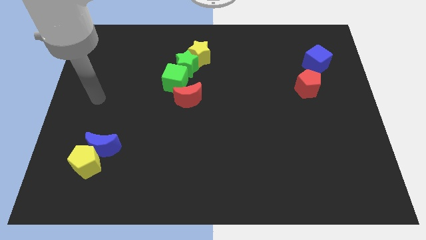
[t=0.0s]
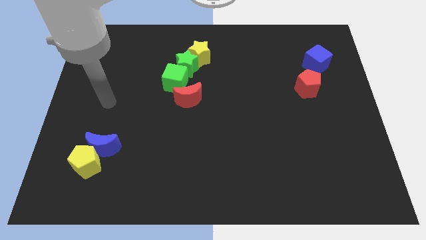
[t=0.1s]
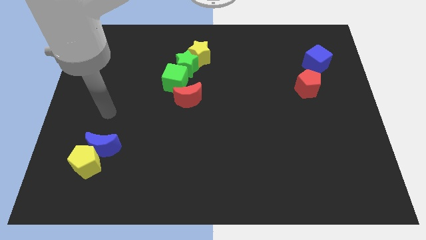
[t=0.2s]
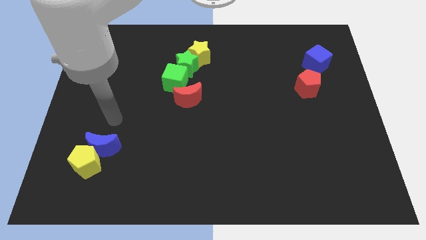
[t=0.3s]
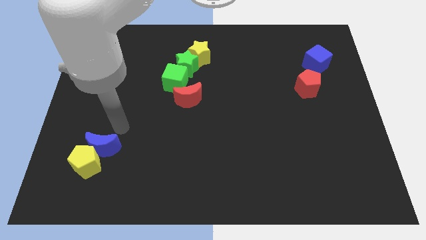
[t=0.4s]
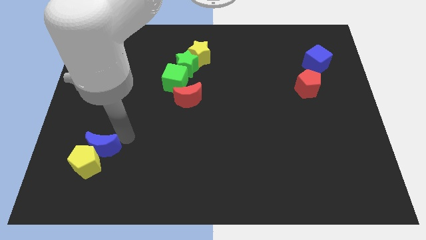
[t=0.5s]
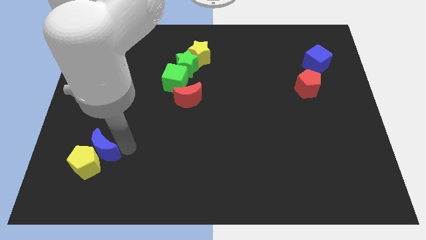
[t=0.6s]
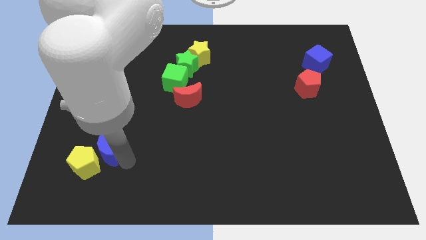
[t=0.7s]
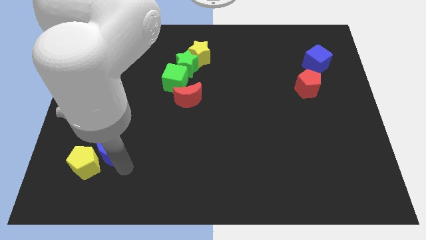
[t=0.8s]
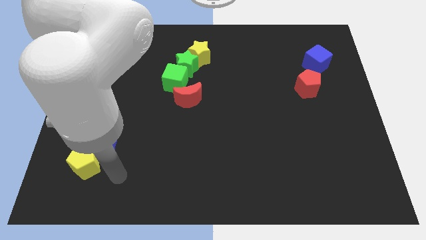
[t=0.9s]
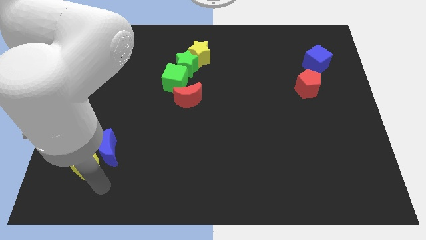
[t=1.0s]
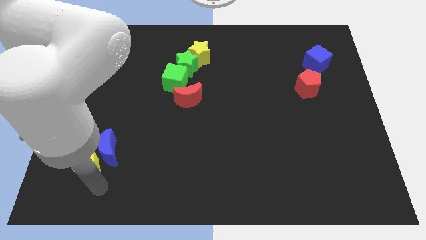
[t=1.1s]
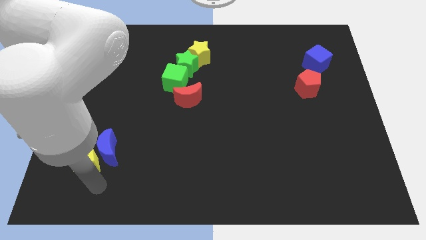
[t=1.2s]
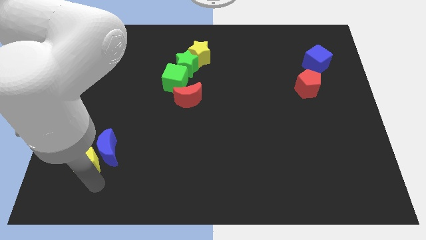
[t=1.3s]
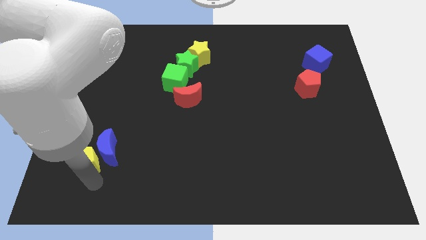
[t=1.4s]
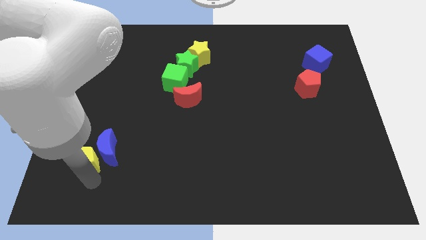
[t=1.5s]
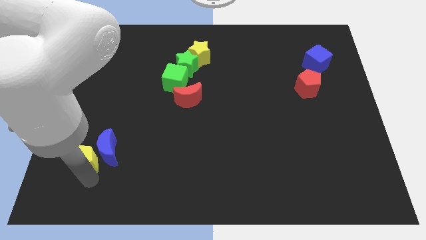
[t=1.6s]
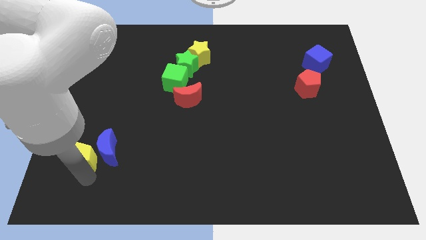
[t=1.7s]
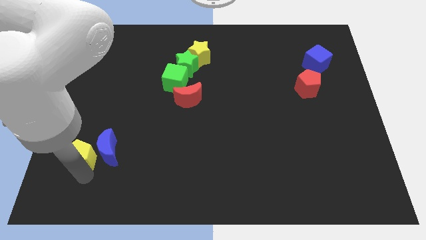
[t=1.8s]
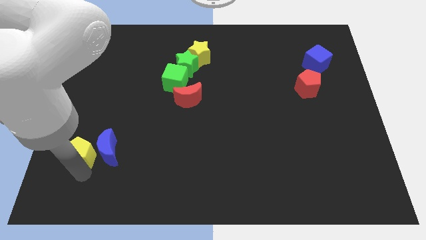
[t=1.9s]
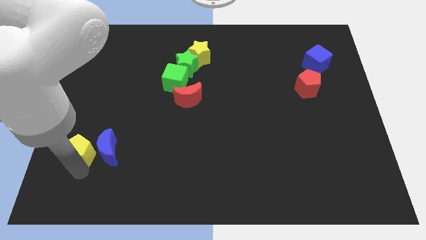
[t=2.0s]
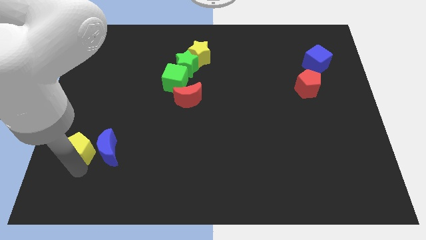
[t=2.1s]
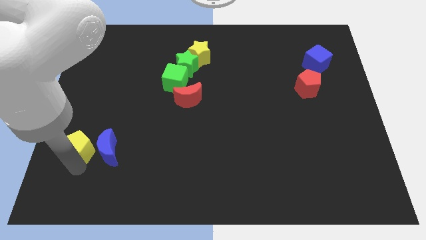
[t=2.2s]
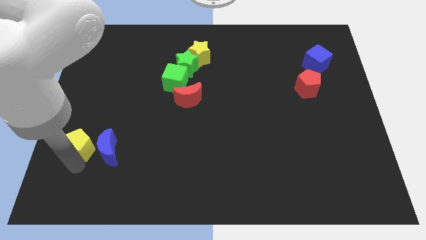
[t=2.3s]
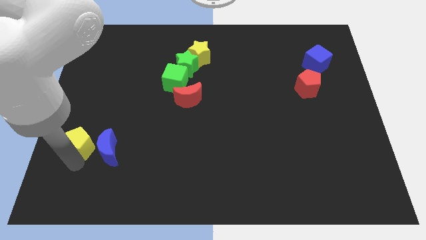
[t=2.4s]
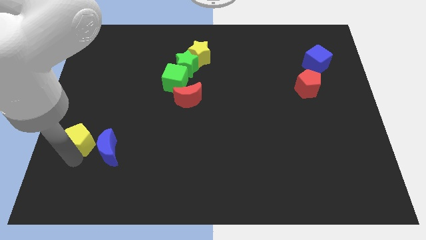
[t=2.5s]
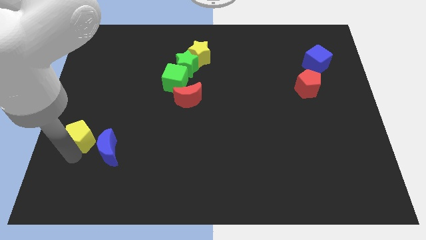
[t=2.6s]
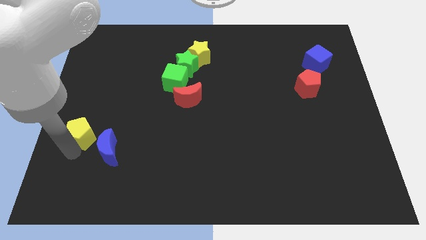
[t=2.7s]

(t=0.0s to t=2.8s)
slightly move the yellow pentagon up

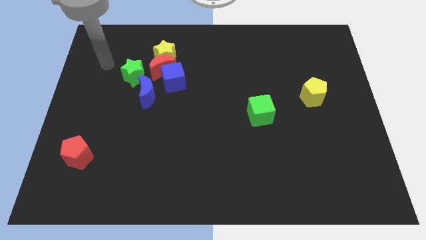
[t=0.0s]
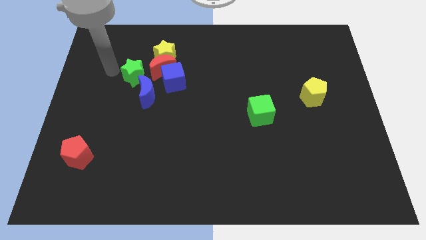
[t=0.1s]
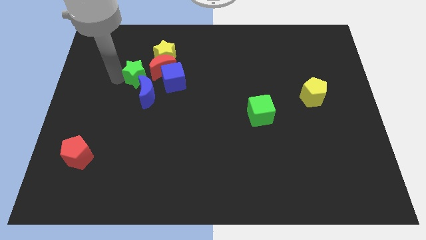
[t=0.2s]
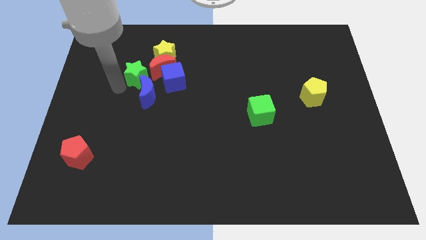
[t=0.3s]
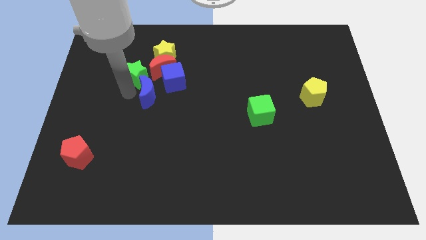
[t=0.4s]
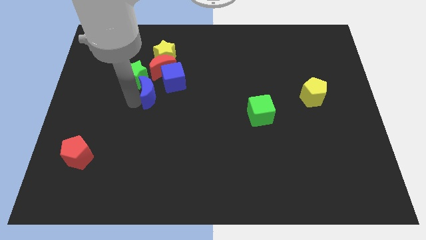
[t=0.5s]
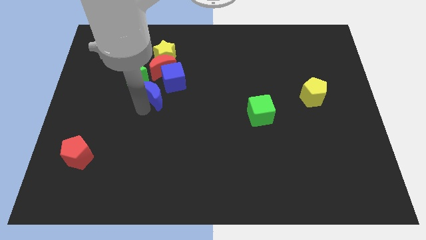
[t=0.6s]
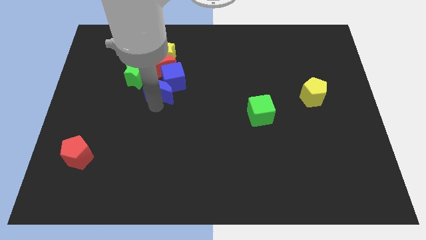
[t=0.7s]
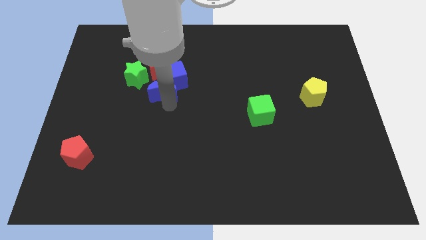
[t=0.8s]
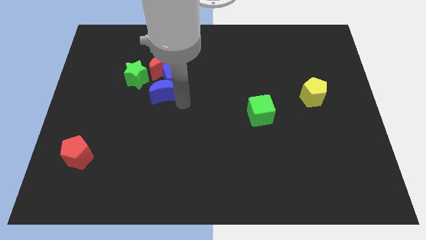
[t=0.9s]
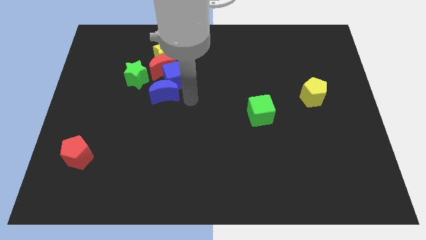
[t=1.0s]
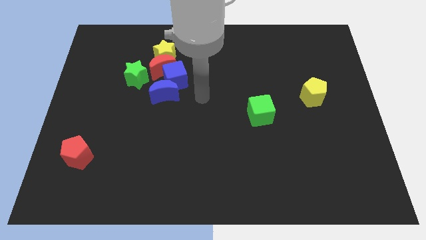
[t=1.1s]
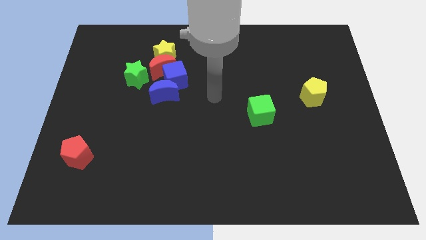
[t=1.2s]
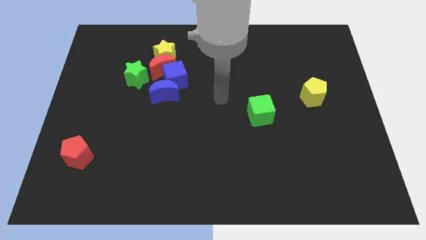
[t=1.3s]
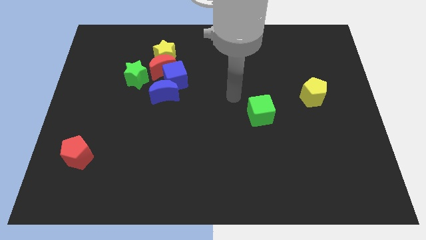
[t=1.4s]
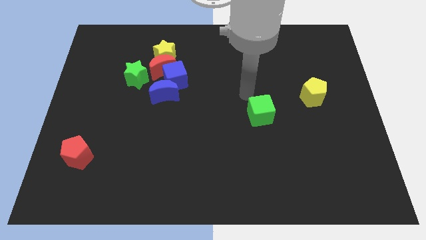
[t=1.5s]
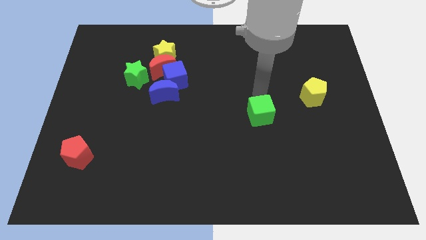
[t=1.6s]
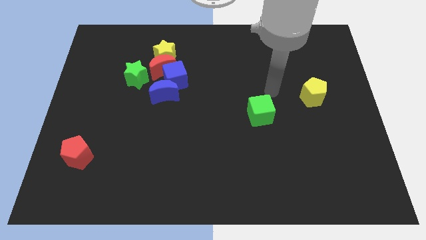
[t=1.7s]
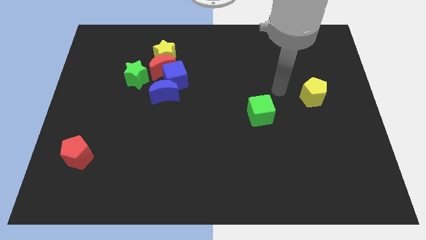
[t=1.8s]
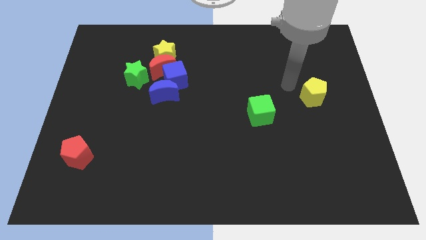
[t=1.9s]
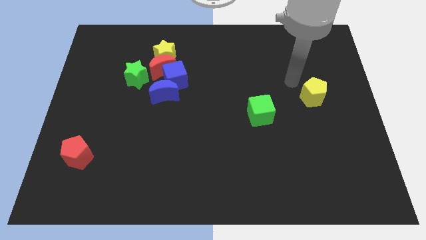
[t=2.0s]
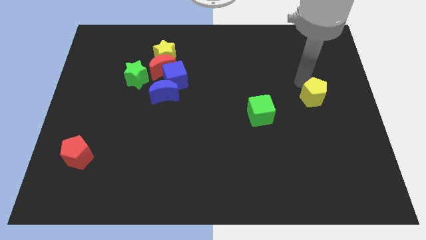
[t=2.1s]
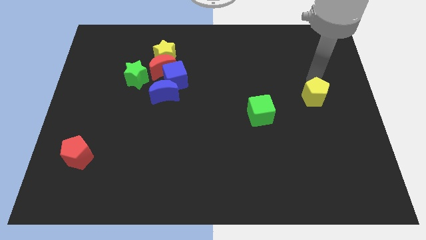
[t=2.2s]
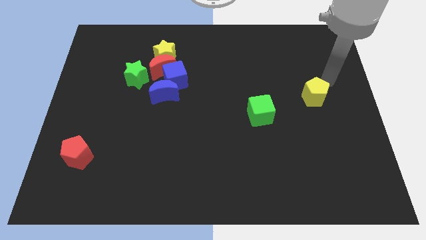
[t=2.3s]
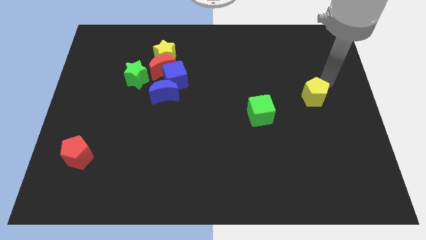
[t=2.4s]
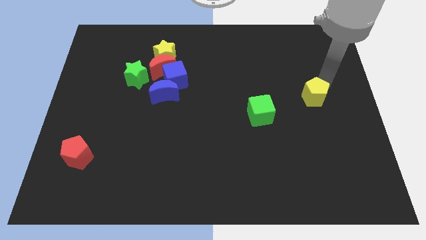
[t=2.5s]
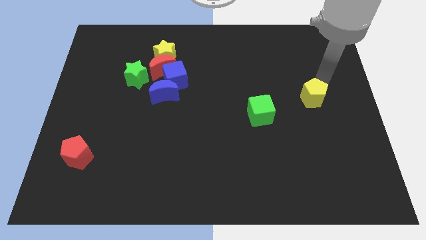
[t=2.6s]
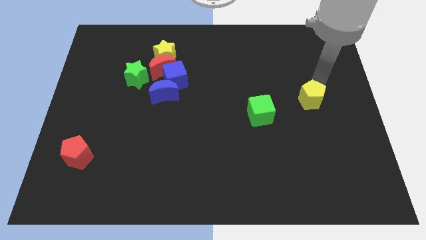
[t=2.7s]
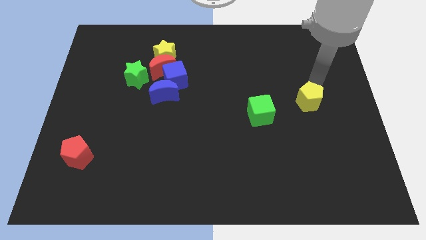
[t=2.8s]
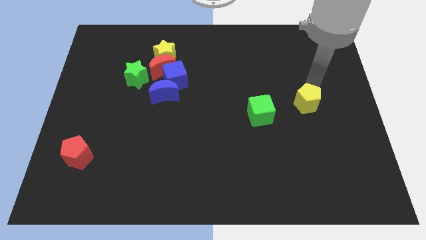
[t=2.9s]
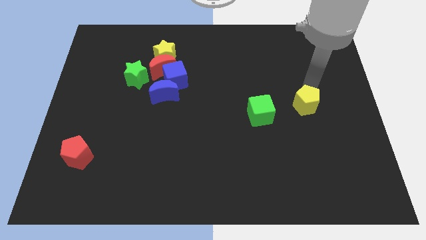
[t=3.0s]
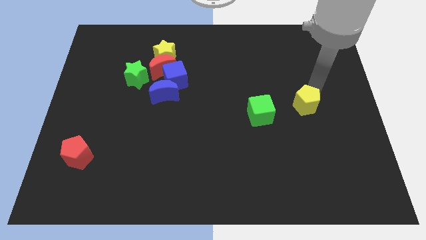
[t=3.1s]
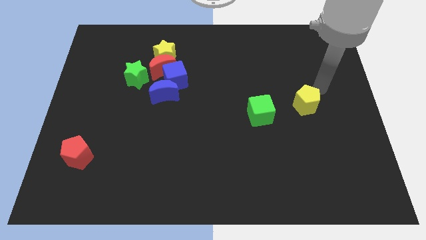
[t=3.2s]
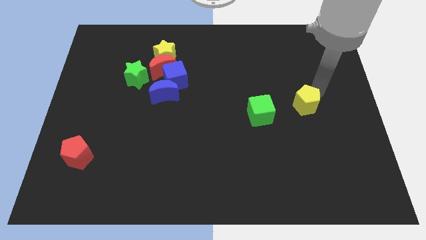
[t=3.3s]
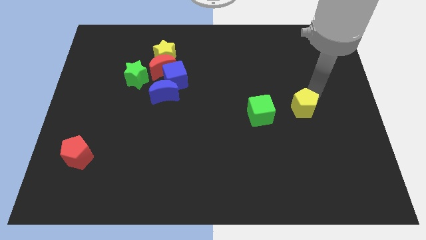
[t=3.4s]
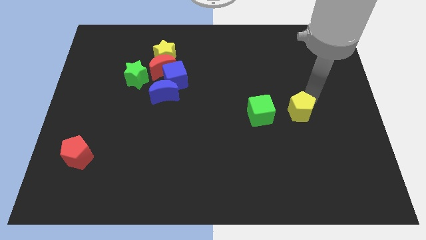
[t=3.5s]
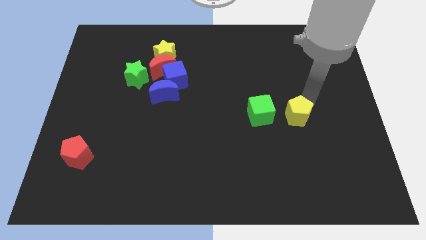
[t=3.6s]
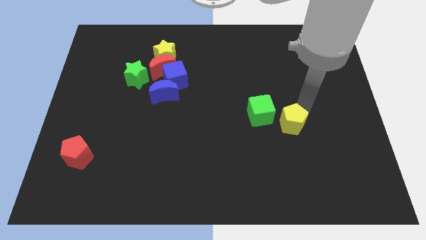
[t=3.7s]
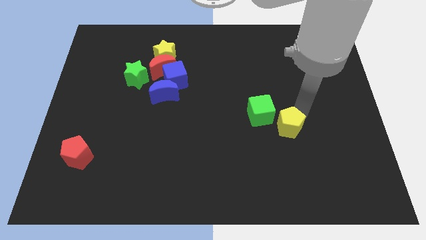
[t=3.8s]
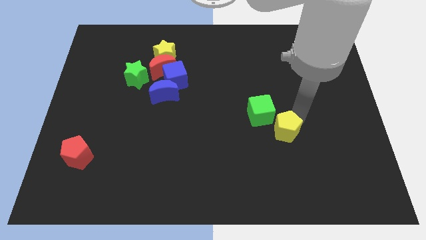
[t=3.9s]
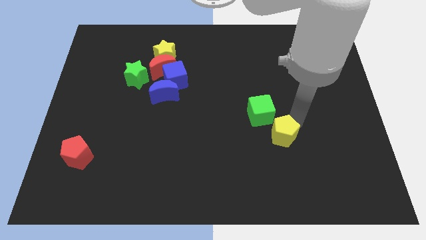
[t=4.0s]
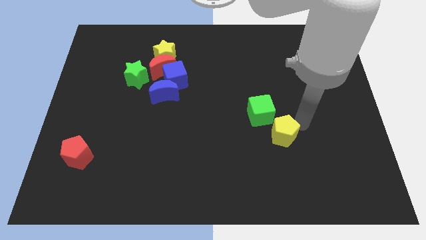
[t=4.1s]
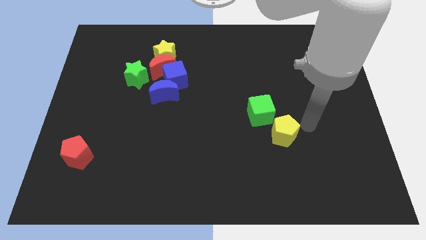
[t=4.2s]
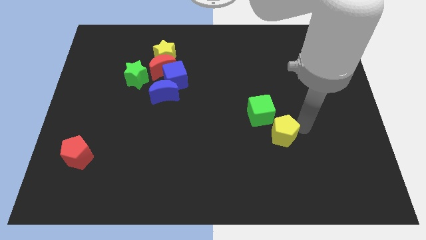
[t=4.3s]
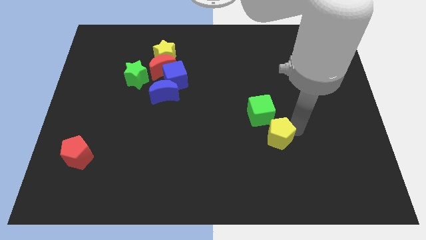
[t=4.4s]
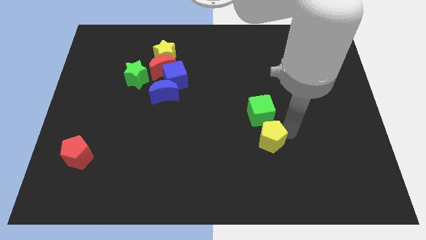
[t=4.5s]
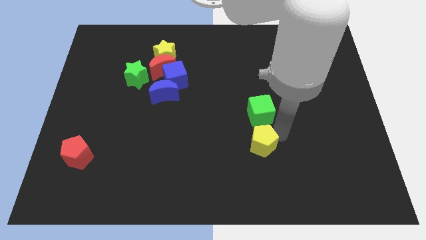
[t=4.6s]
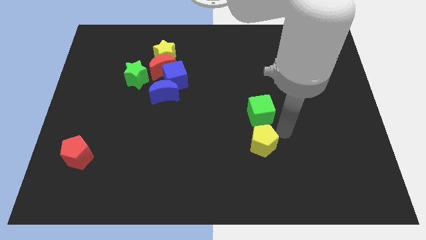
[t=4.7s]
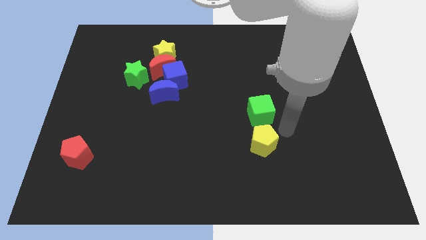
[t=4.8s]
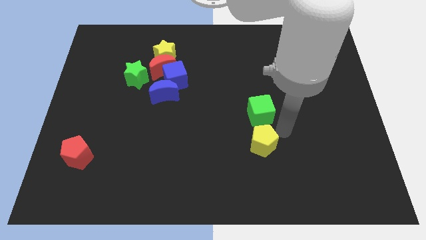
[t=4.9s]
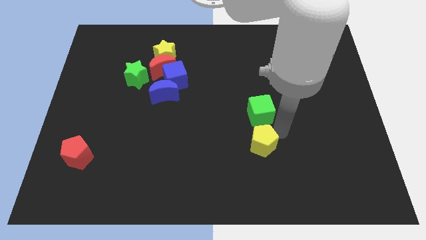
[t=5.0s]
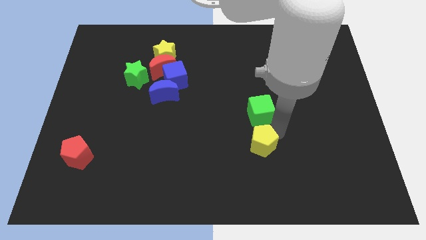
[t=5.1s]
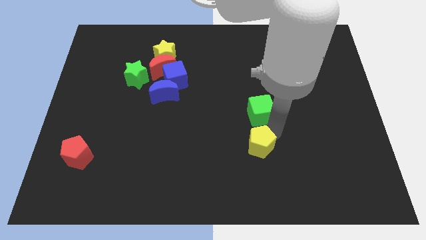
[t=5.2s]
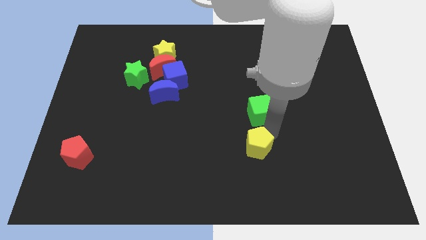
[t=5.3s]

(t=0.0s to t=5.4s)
push the yellow pentagon down and left
